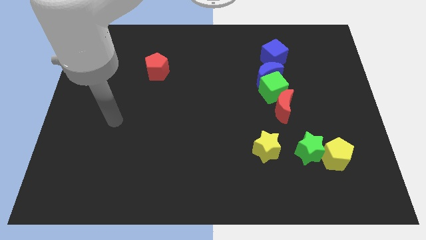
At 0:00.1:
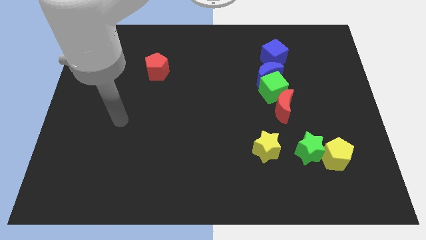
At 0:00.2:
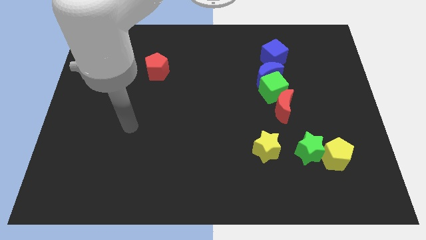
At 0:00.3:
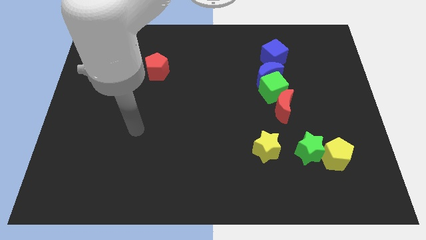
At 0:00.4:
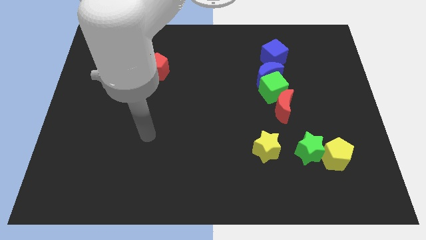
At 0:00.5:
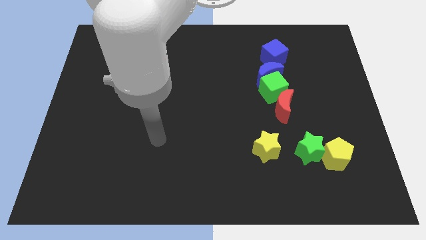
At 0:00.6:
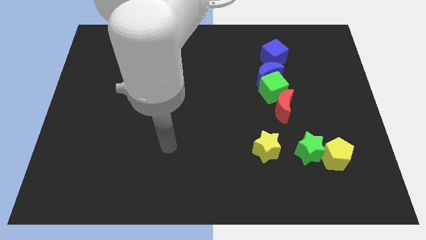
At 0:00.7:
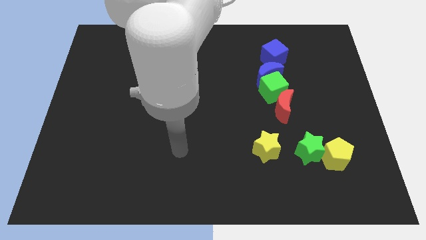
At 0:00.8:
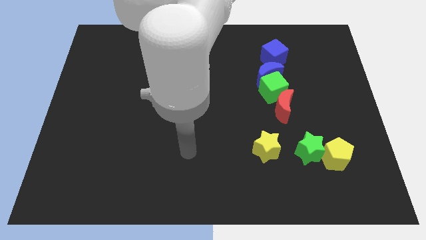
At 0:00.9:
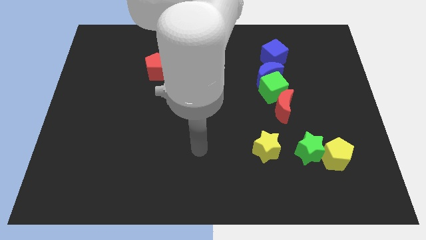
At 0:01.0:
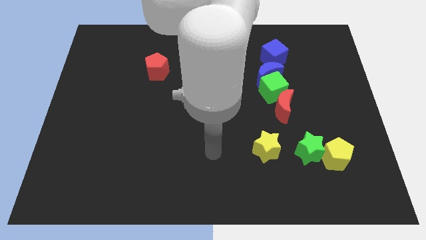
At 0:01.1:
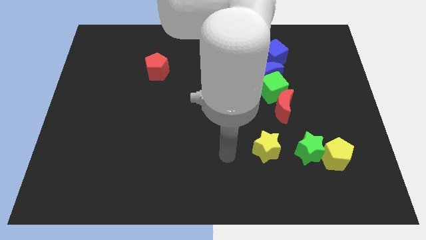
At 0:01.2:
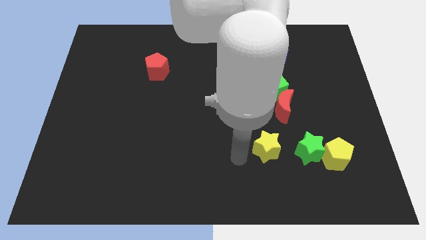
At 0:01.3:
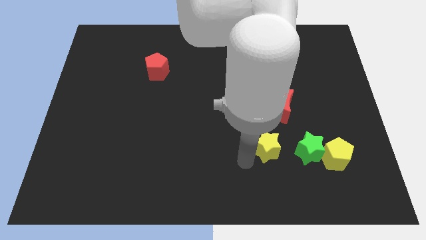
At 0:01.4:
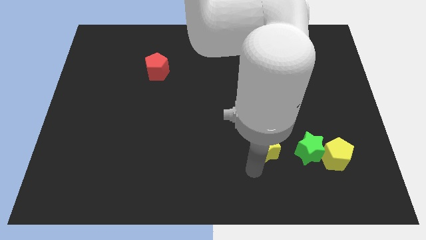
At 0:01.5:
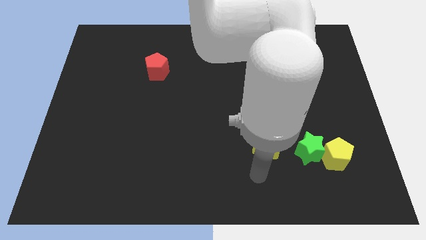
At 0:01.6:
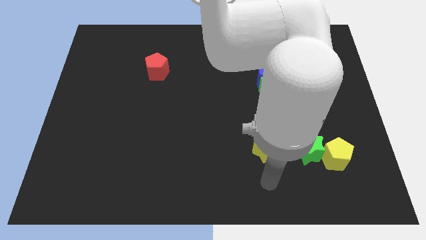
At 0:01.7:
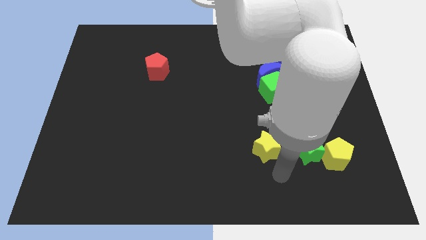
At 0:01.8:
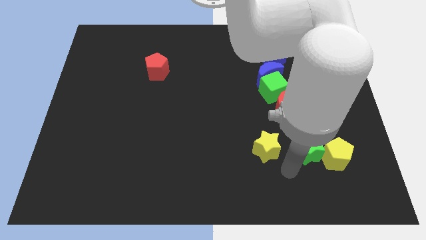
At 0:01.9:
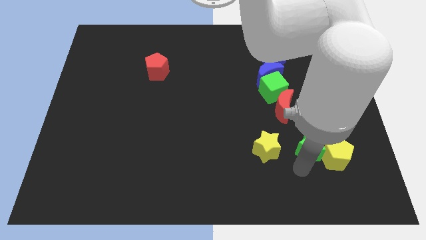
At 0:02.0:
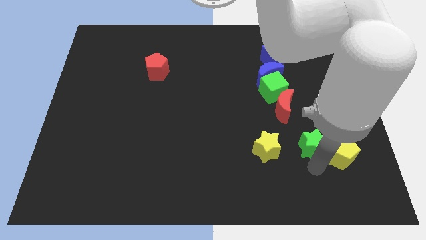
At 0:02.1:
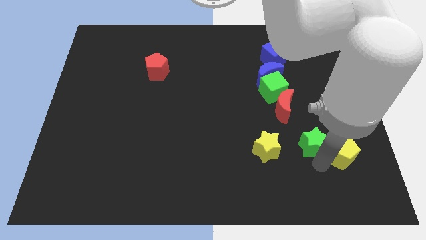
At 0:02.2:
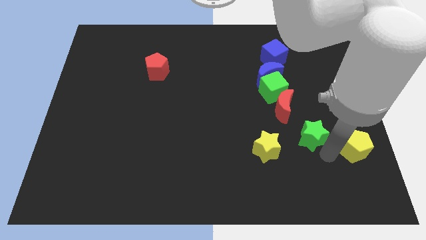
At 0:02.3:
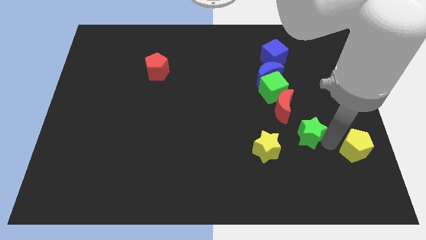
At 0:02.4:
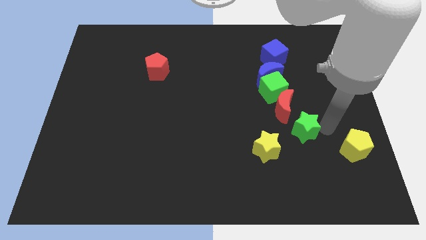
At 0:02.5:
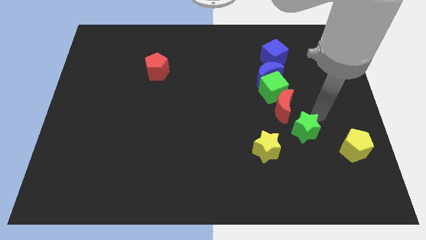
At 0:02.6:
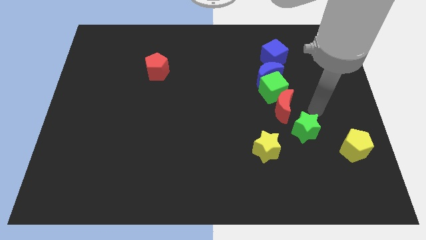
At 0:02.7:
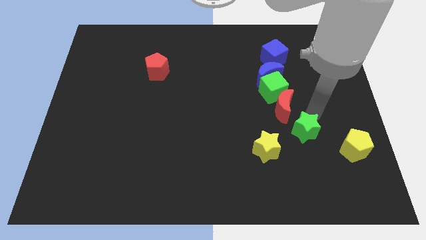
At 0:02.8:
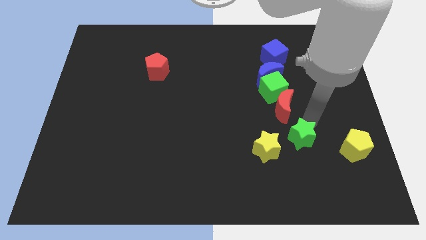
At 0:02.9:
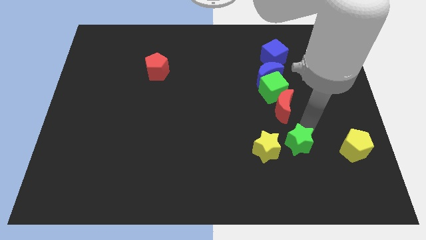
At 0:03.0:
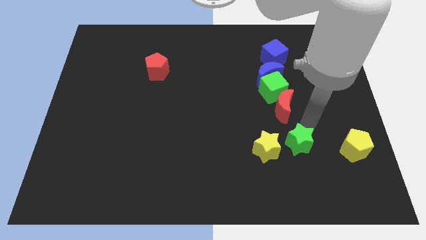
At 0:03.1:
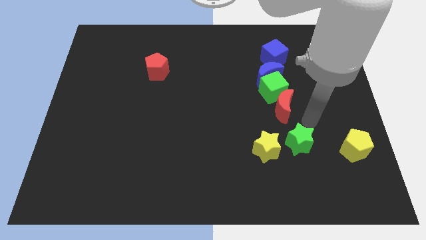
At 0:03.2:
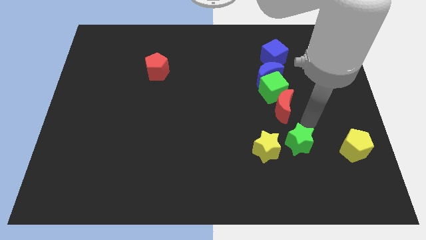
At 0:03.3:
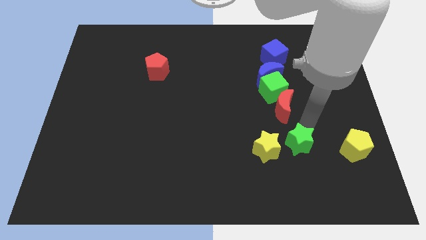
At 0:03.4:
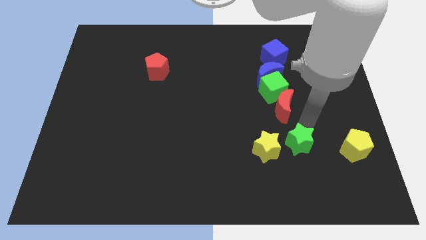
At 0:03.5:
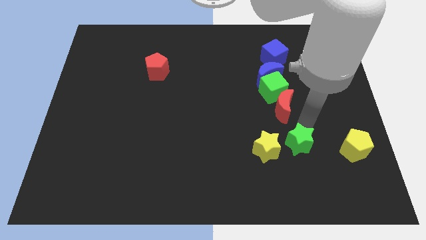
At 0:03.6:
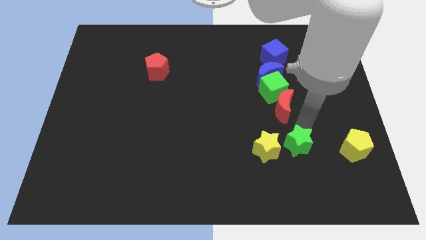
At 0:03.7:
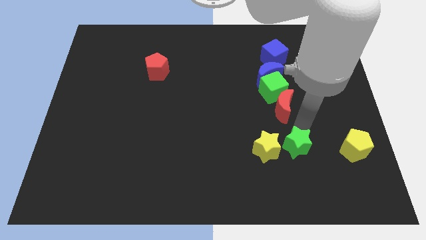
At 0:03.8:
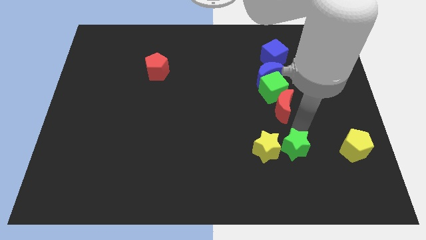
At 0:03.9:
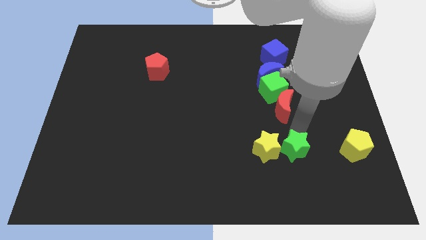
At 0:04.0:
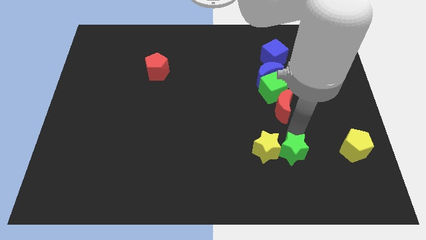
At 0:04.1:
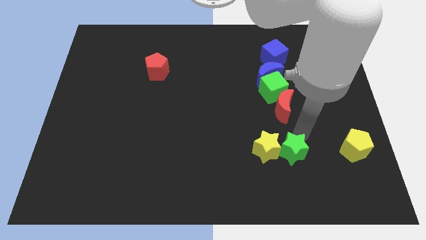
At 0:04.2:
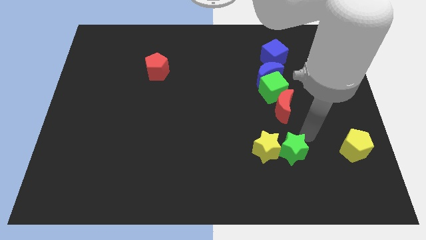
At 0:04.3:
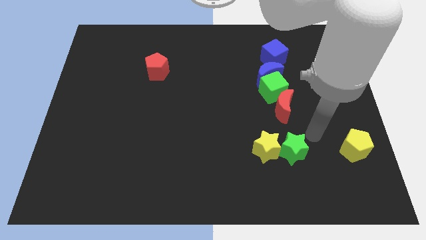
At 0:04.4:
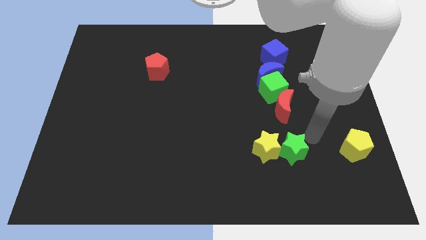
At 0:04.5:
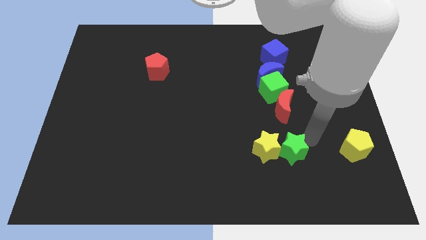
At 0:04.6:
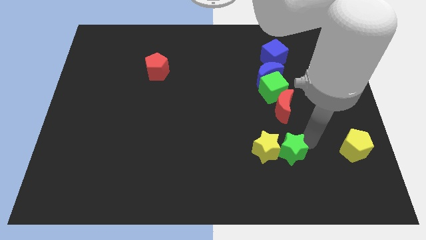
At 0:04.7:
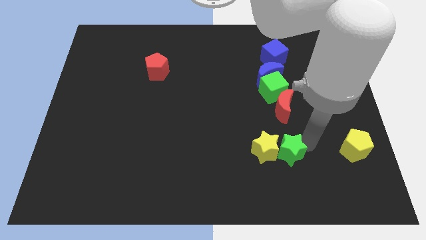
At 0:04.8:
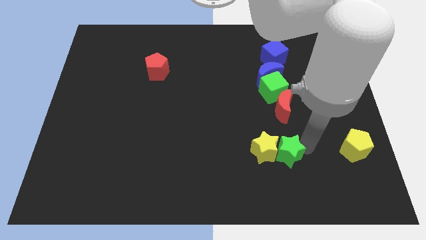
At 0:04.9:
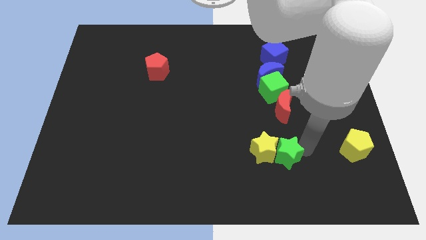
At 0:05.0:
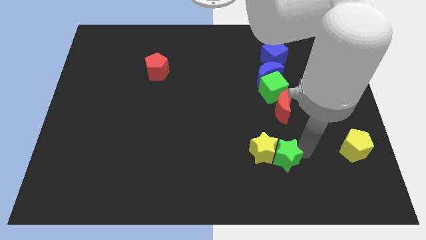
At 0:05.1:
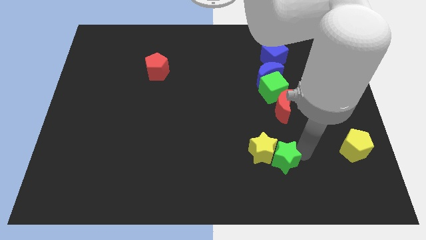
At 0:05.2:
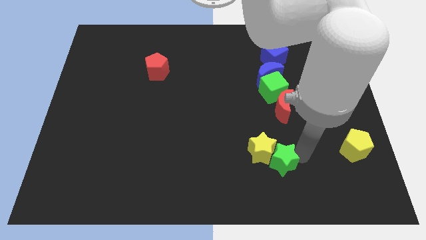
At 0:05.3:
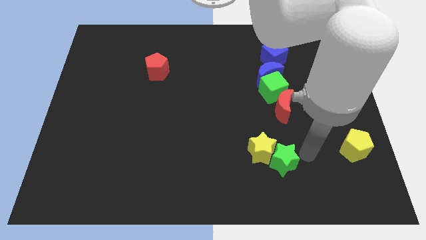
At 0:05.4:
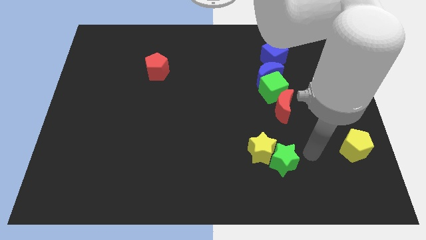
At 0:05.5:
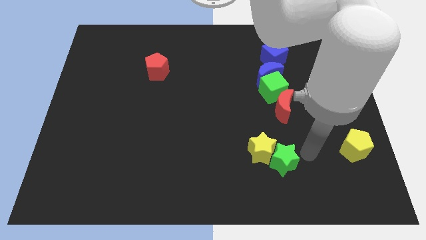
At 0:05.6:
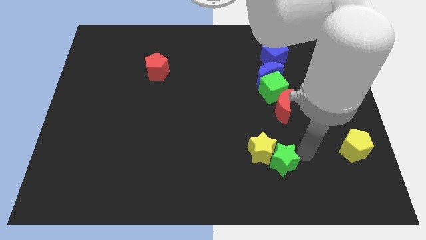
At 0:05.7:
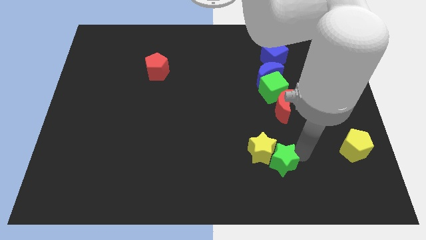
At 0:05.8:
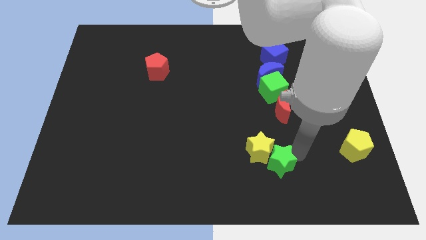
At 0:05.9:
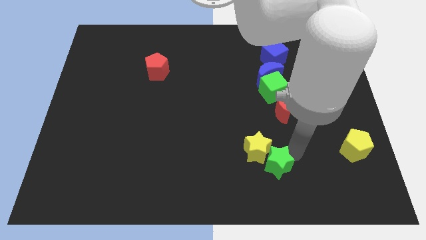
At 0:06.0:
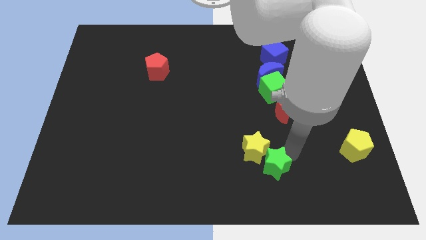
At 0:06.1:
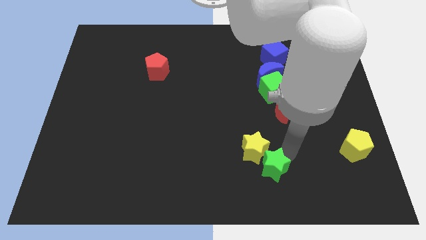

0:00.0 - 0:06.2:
slightly move the green star left

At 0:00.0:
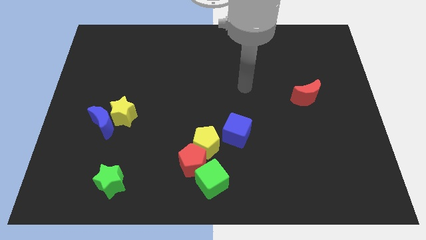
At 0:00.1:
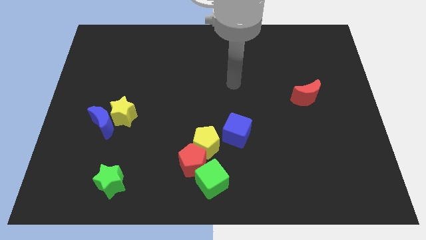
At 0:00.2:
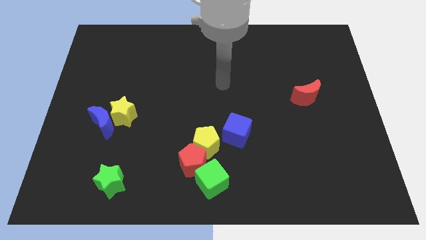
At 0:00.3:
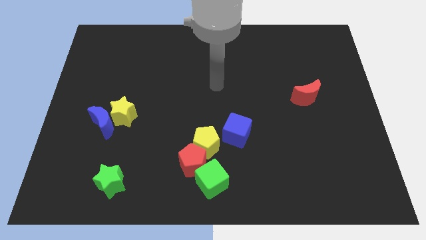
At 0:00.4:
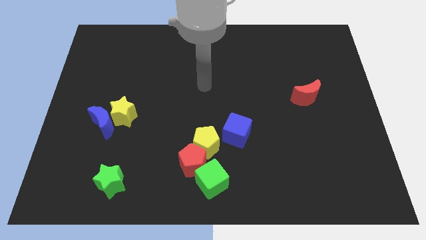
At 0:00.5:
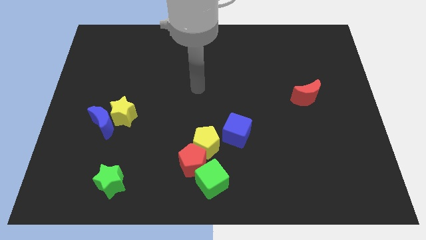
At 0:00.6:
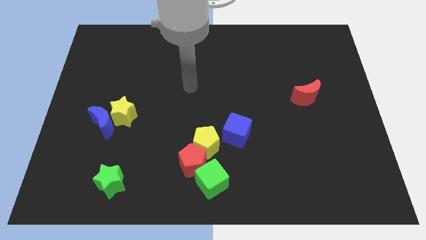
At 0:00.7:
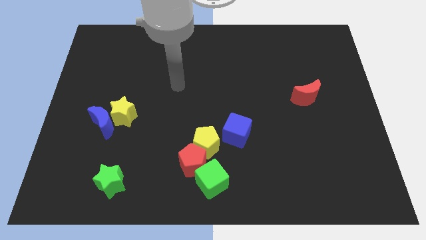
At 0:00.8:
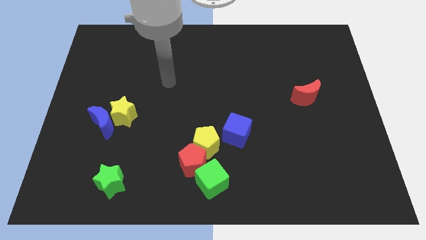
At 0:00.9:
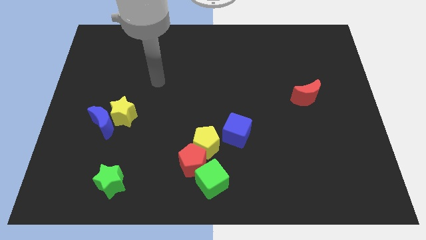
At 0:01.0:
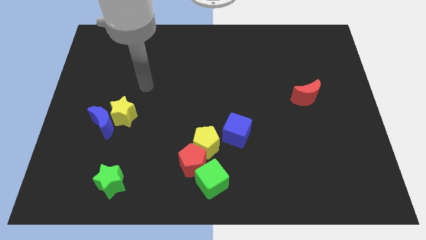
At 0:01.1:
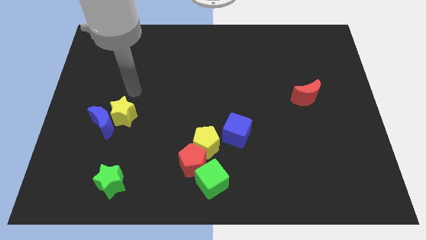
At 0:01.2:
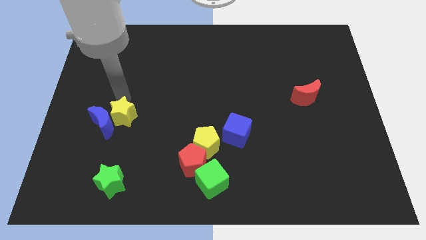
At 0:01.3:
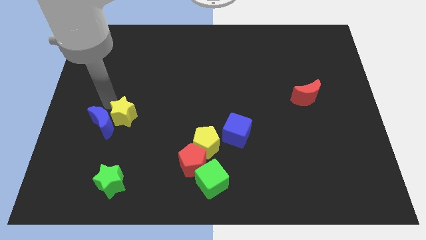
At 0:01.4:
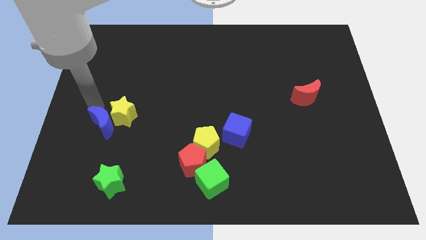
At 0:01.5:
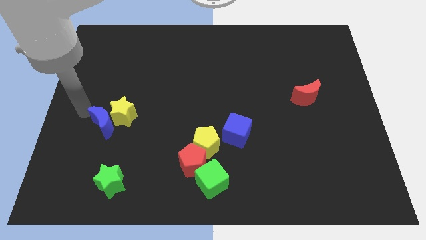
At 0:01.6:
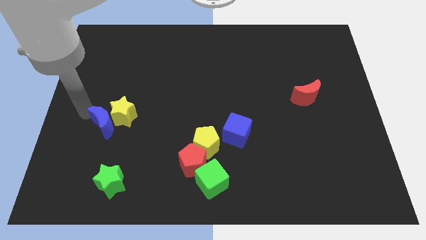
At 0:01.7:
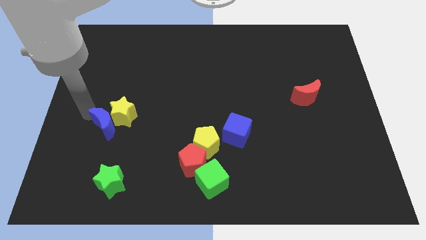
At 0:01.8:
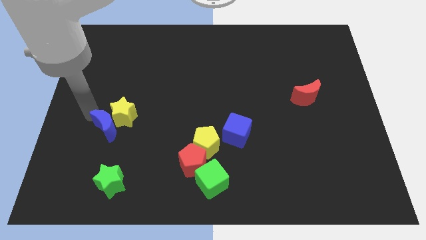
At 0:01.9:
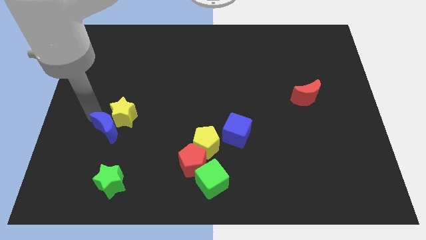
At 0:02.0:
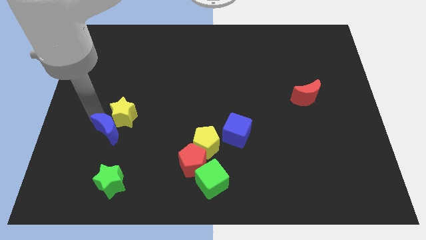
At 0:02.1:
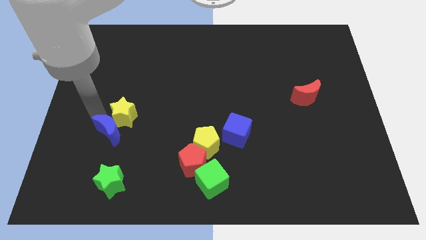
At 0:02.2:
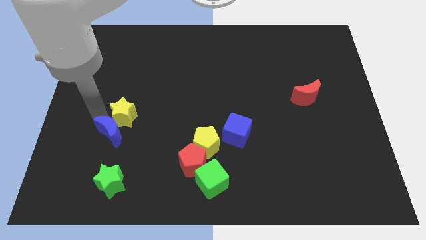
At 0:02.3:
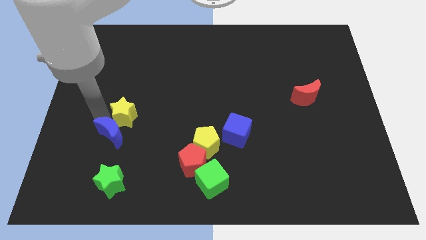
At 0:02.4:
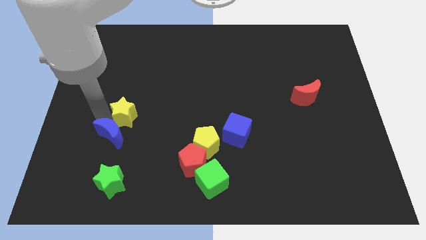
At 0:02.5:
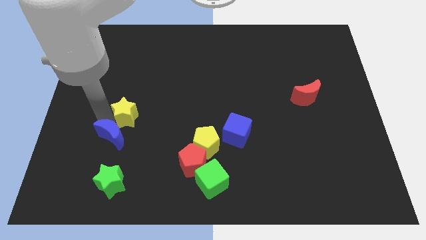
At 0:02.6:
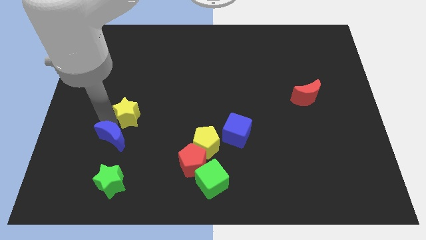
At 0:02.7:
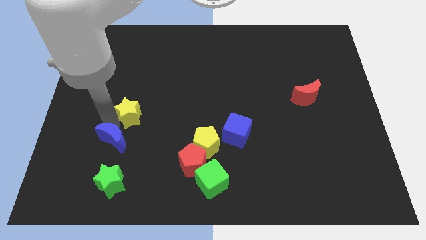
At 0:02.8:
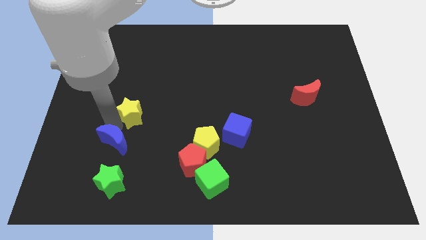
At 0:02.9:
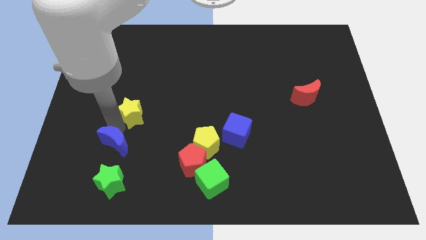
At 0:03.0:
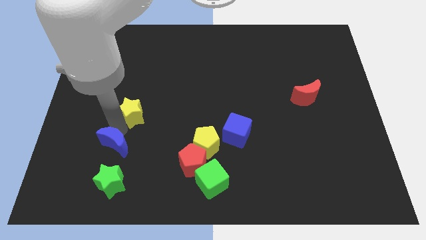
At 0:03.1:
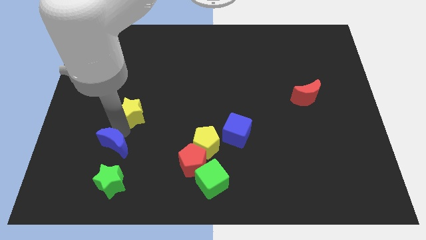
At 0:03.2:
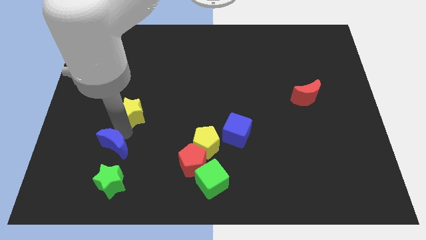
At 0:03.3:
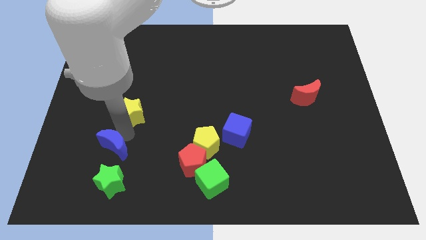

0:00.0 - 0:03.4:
move the blue moon a bit down and to the right diagonally
